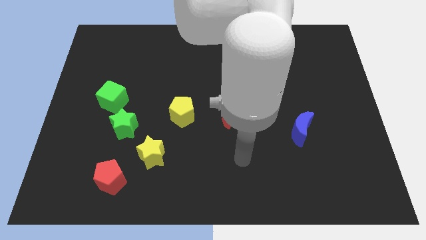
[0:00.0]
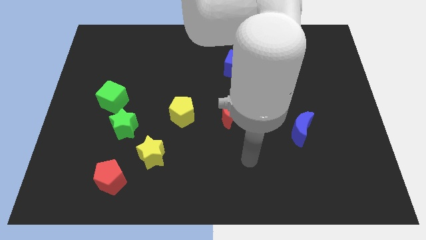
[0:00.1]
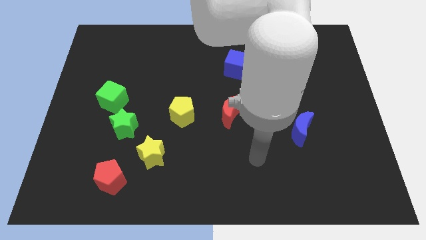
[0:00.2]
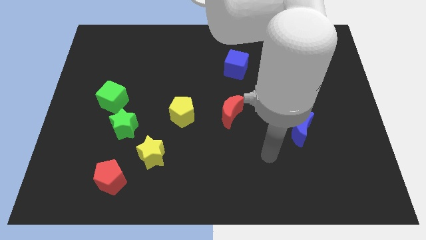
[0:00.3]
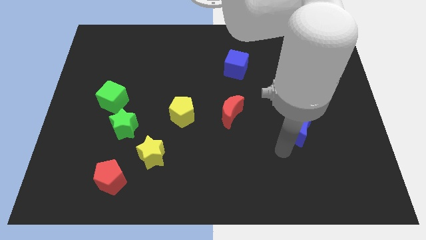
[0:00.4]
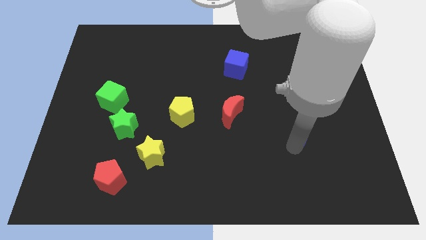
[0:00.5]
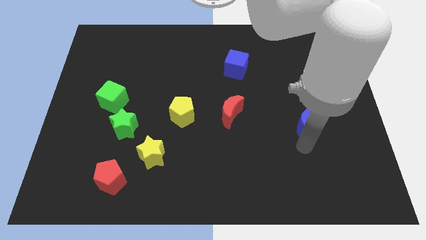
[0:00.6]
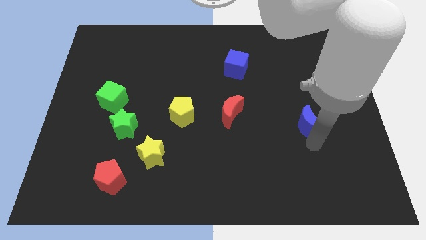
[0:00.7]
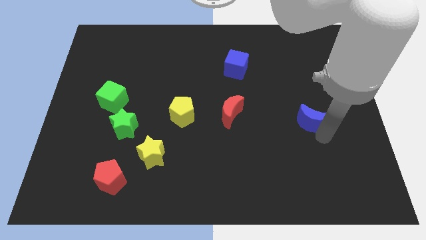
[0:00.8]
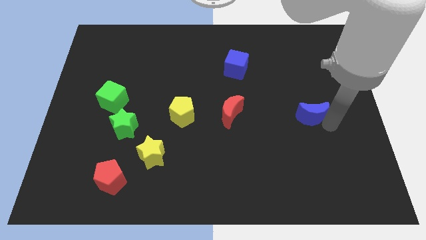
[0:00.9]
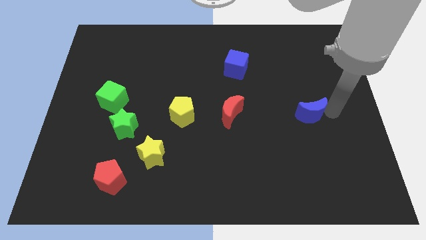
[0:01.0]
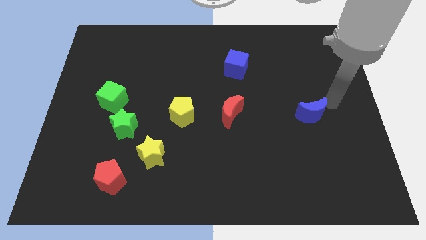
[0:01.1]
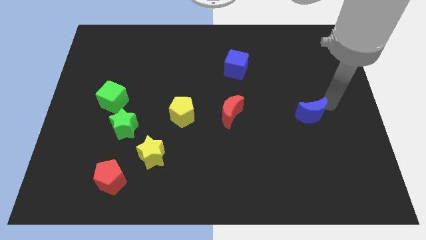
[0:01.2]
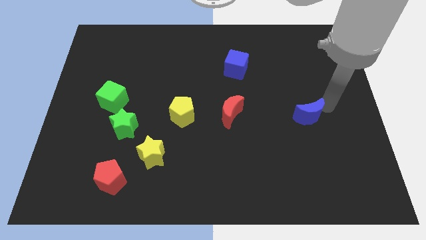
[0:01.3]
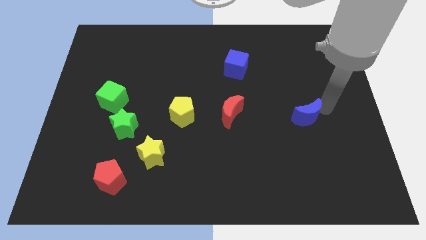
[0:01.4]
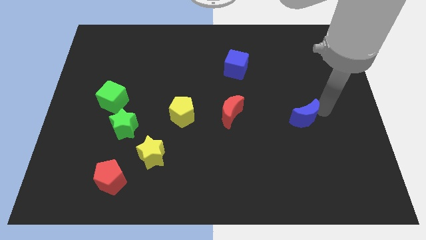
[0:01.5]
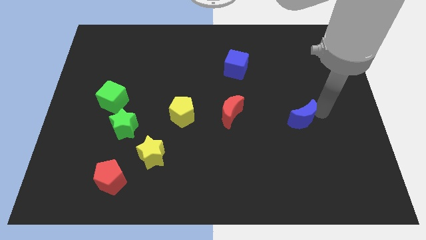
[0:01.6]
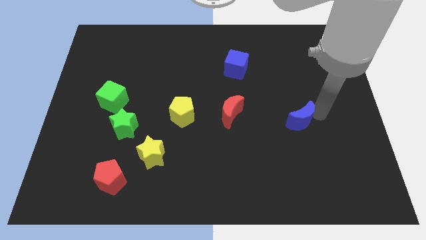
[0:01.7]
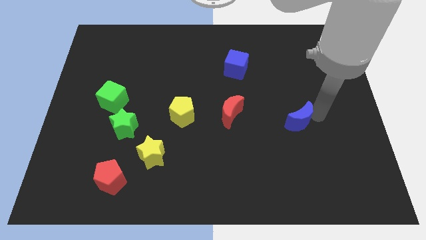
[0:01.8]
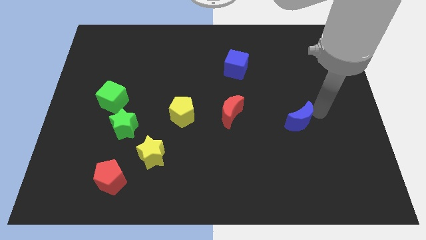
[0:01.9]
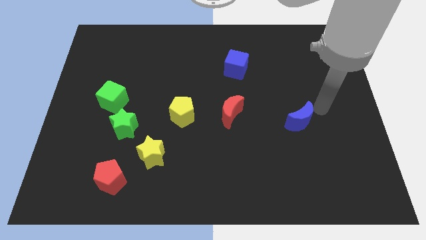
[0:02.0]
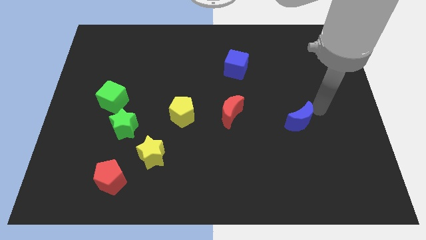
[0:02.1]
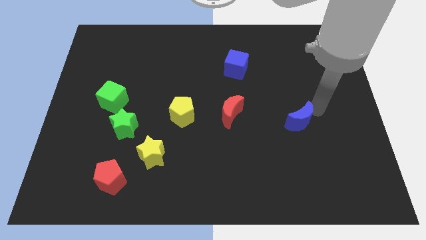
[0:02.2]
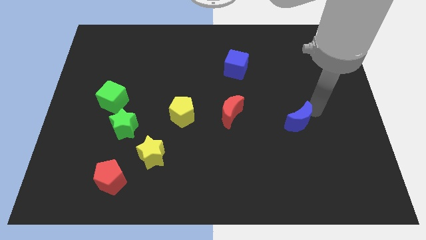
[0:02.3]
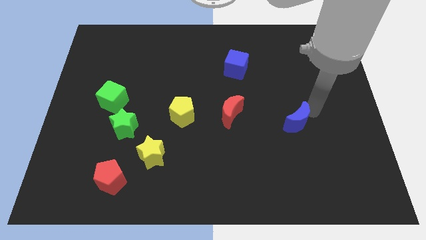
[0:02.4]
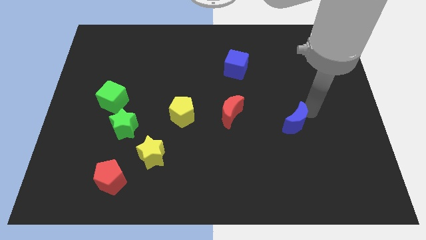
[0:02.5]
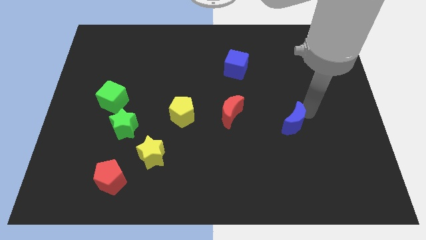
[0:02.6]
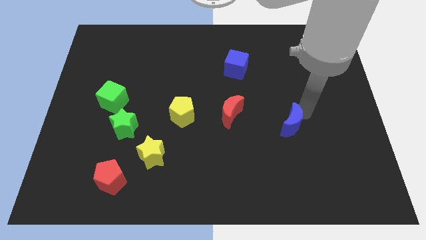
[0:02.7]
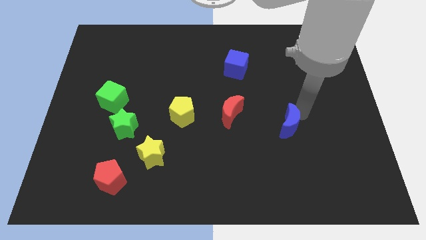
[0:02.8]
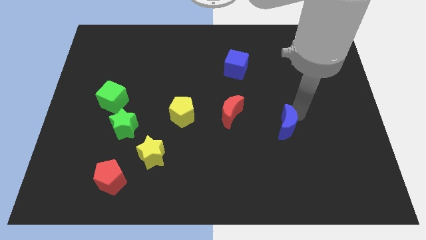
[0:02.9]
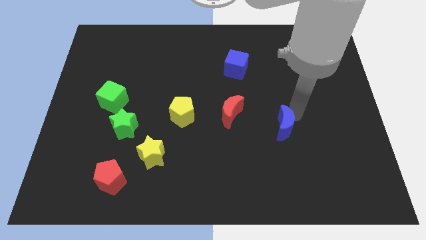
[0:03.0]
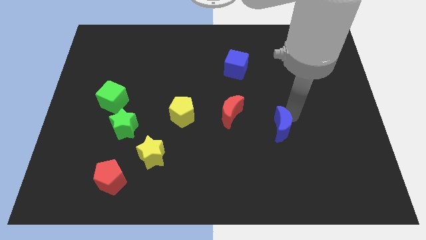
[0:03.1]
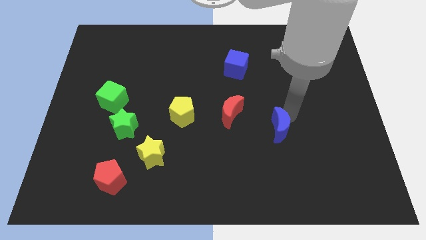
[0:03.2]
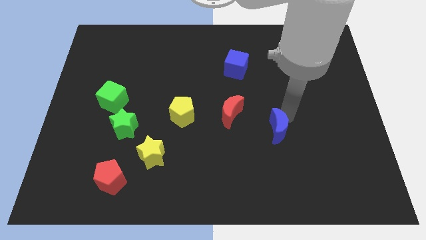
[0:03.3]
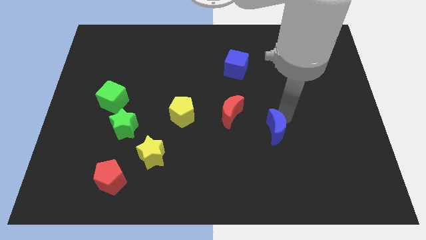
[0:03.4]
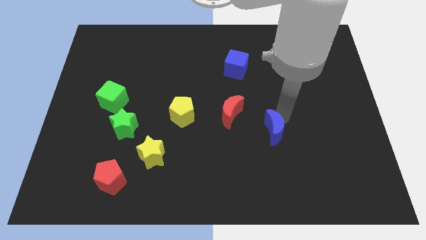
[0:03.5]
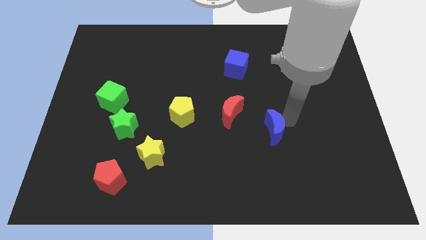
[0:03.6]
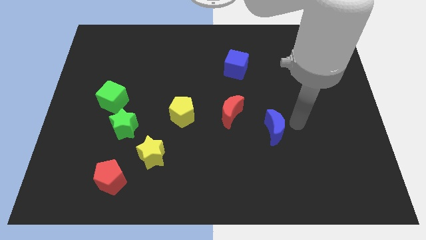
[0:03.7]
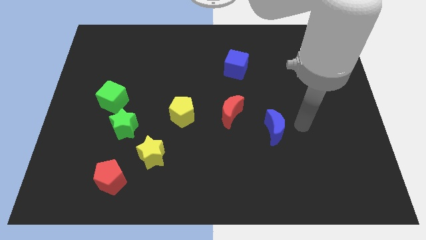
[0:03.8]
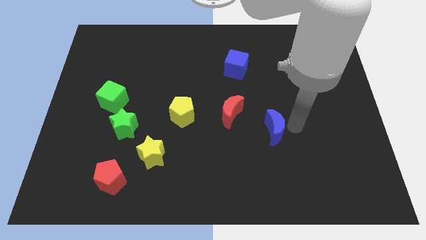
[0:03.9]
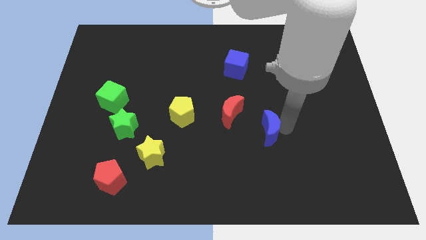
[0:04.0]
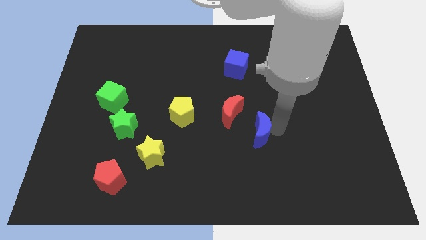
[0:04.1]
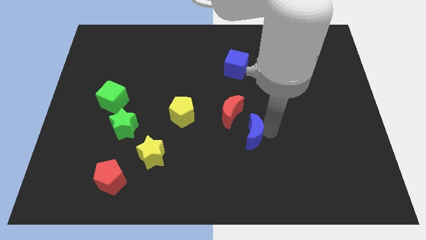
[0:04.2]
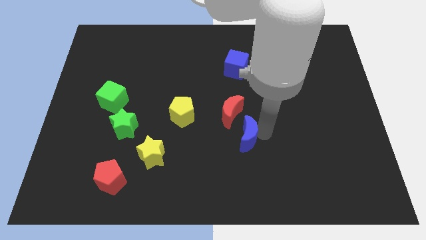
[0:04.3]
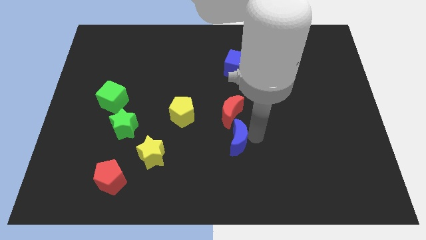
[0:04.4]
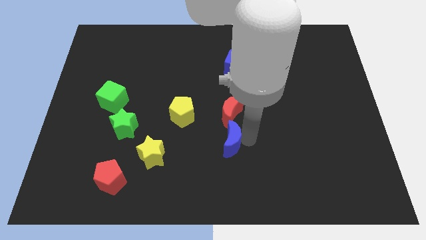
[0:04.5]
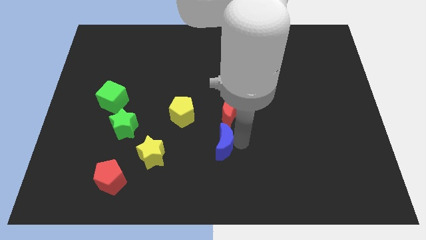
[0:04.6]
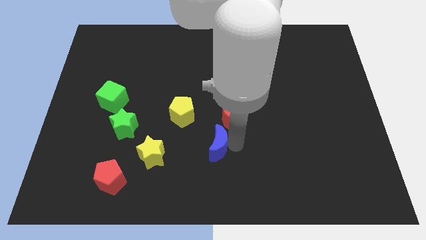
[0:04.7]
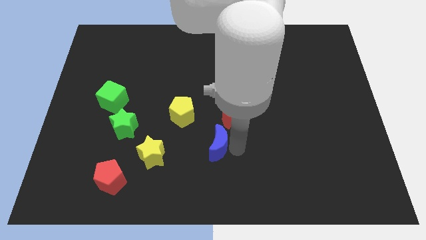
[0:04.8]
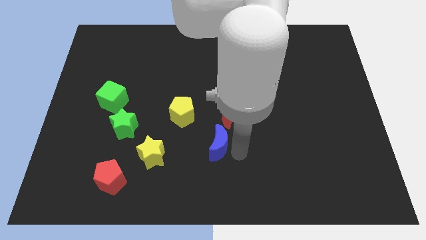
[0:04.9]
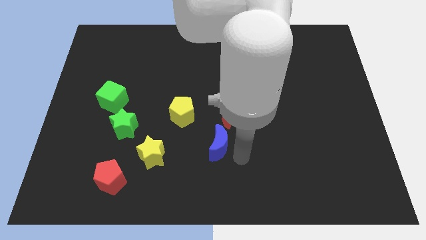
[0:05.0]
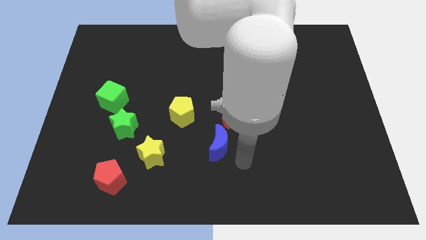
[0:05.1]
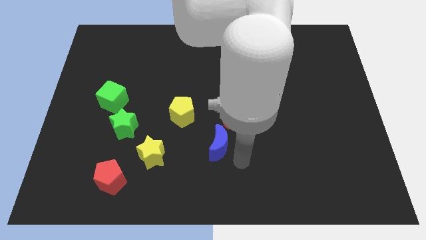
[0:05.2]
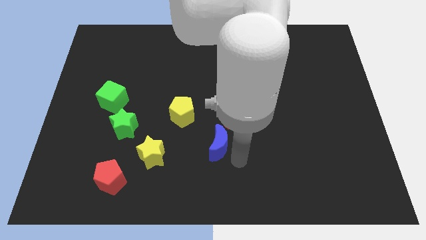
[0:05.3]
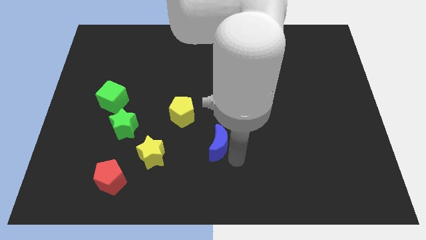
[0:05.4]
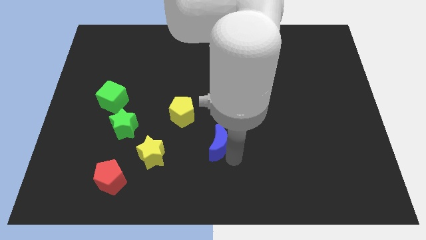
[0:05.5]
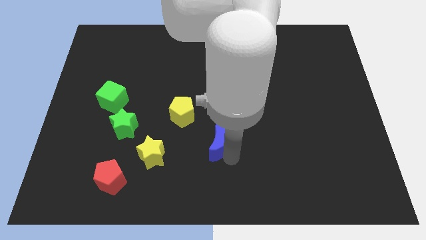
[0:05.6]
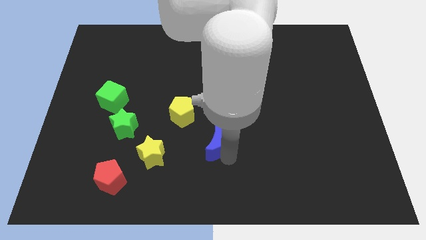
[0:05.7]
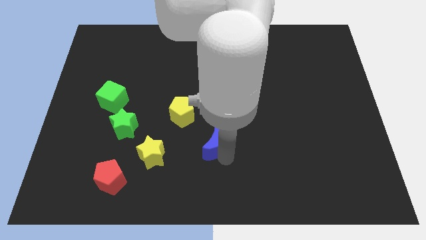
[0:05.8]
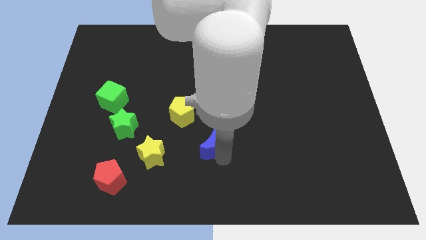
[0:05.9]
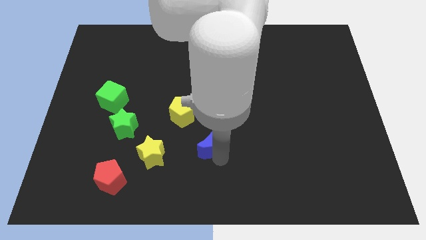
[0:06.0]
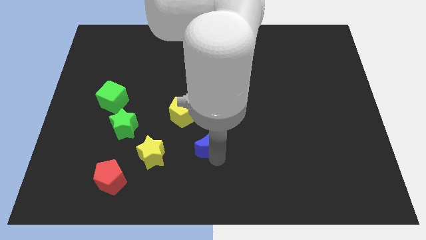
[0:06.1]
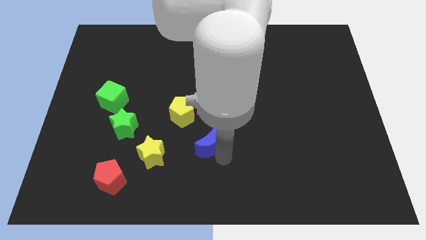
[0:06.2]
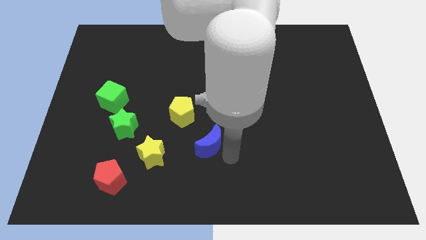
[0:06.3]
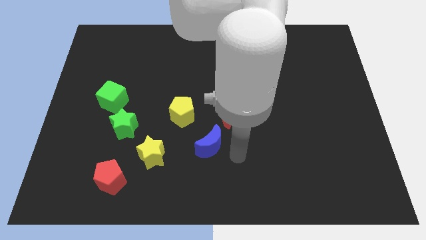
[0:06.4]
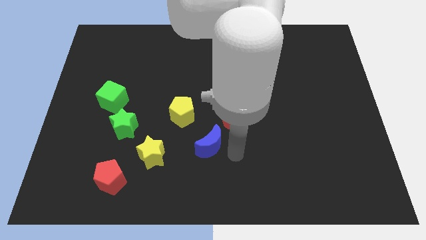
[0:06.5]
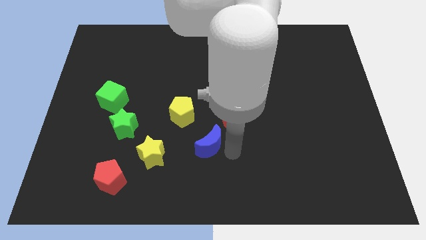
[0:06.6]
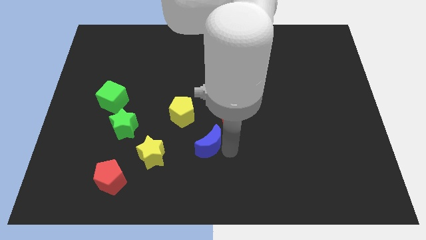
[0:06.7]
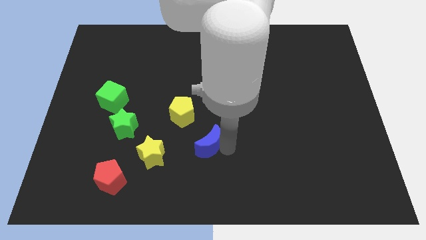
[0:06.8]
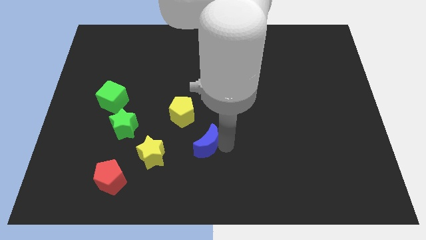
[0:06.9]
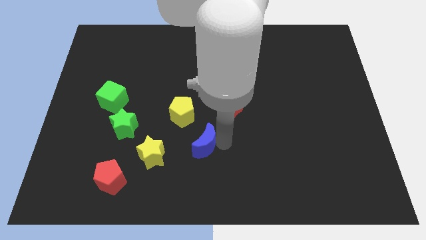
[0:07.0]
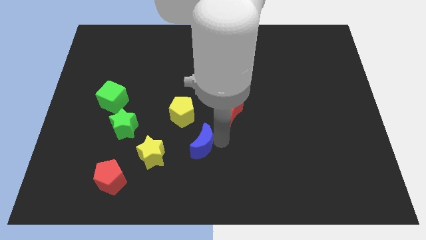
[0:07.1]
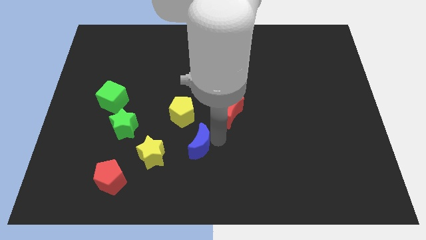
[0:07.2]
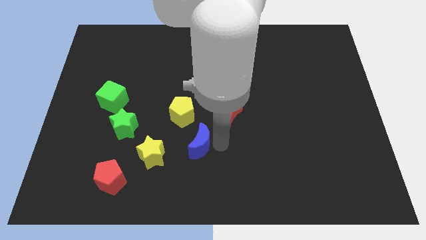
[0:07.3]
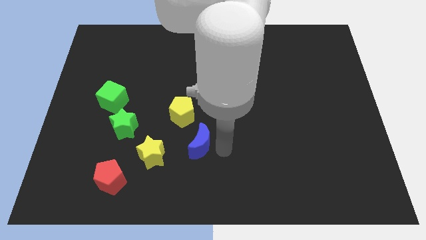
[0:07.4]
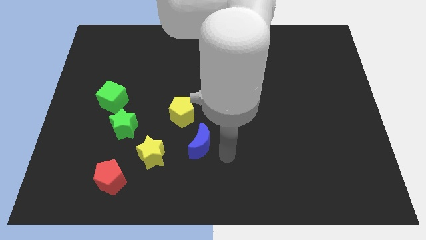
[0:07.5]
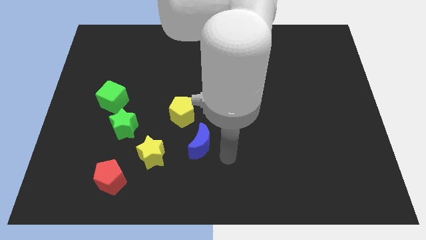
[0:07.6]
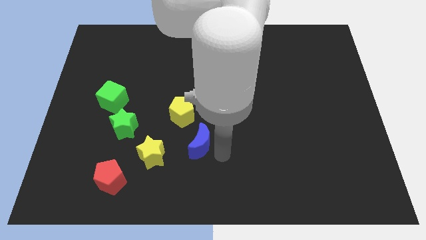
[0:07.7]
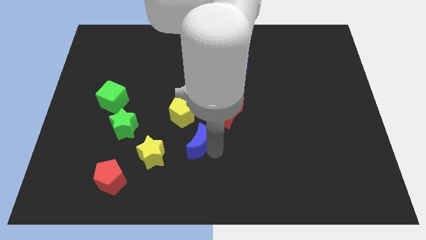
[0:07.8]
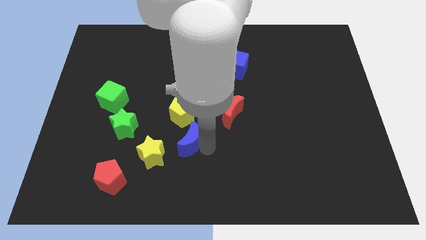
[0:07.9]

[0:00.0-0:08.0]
put the blue moon diagonally up and to the right of the yellow star
